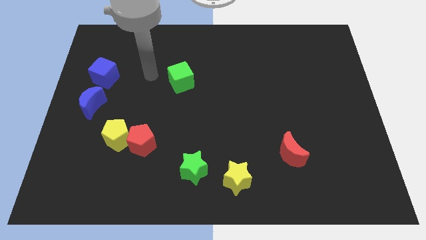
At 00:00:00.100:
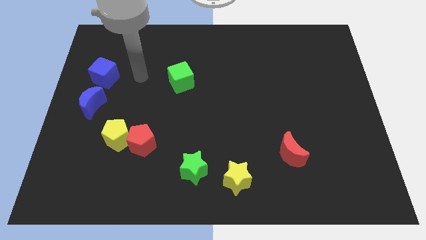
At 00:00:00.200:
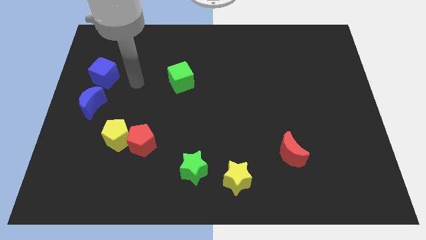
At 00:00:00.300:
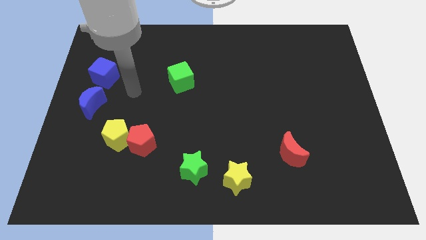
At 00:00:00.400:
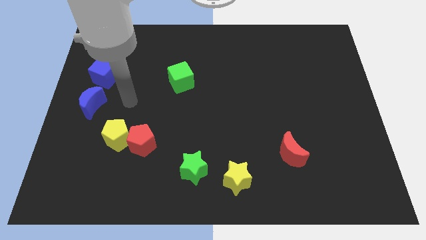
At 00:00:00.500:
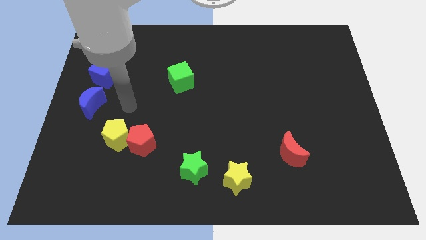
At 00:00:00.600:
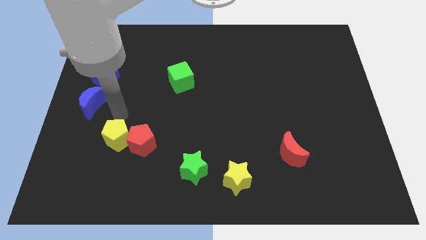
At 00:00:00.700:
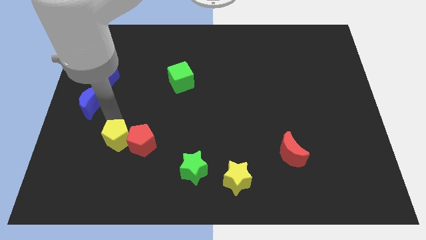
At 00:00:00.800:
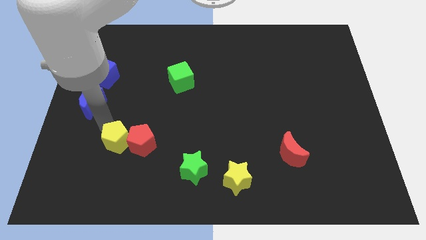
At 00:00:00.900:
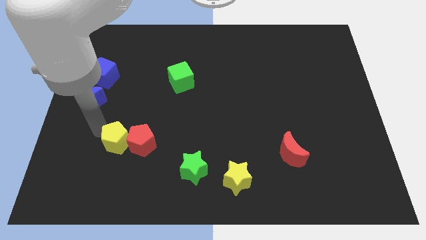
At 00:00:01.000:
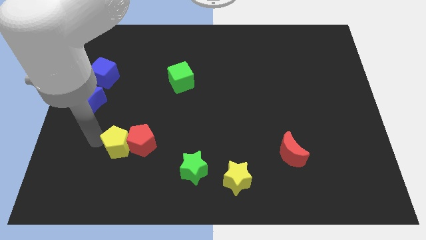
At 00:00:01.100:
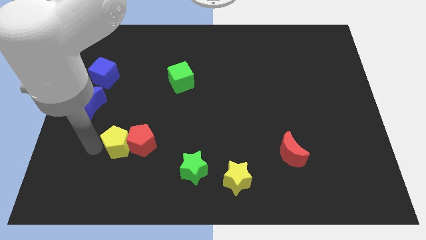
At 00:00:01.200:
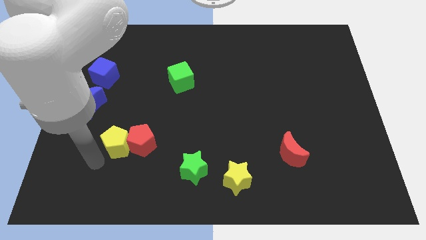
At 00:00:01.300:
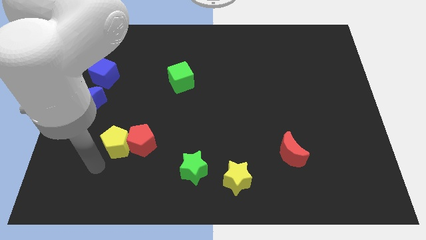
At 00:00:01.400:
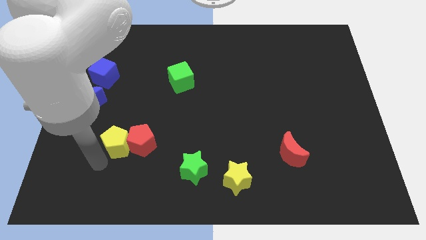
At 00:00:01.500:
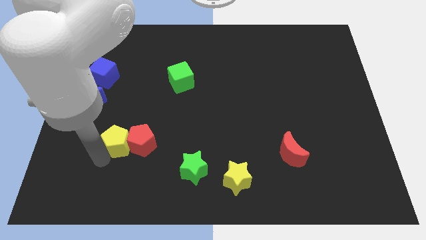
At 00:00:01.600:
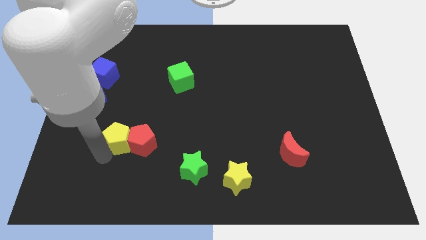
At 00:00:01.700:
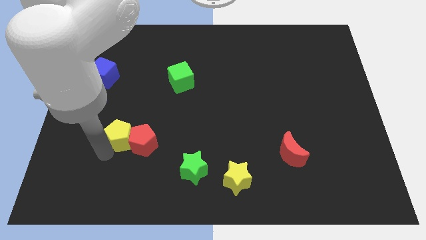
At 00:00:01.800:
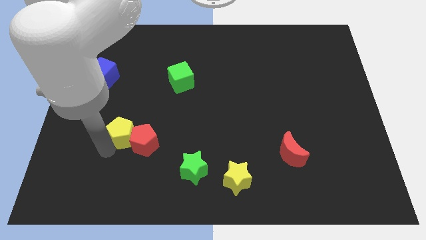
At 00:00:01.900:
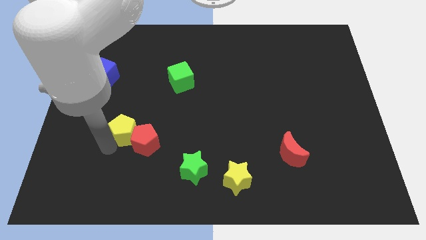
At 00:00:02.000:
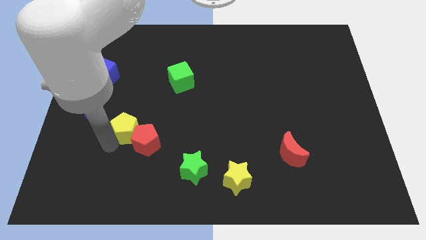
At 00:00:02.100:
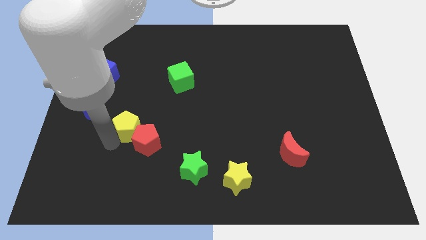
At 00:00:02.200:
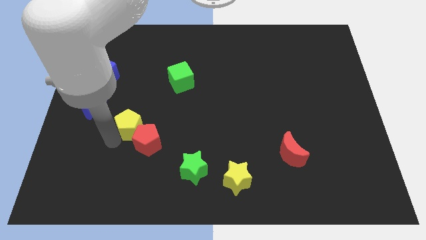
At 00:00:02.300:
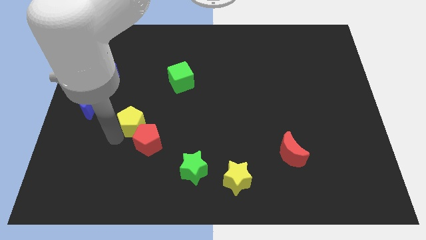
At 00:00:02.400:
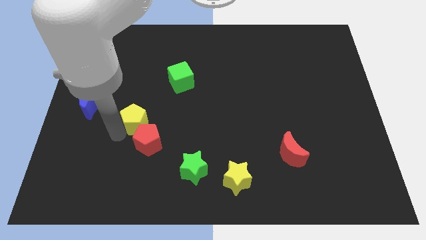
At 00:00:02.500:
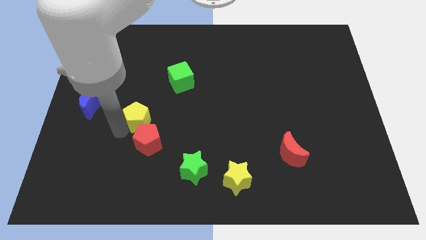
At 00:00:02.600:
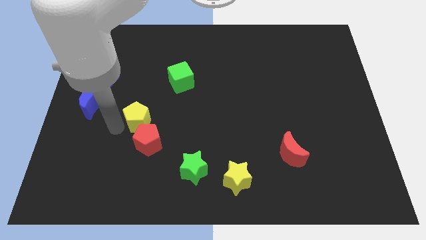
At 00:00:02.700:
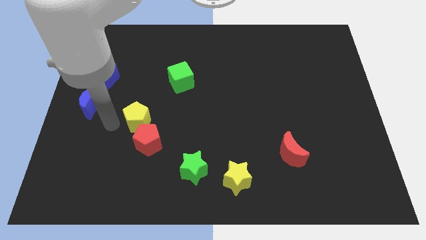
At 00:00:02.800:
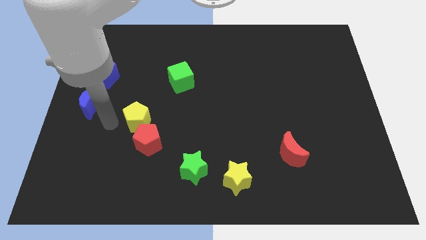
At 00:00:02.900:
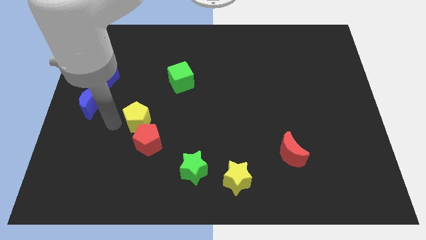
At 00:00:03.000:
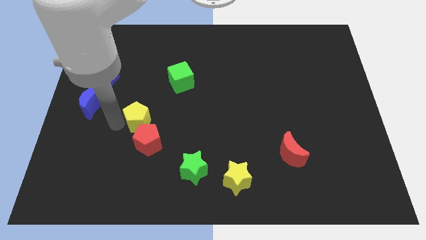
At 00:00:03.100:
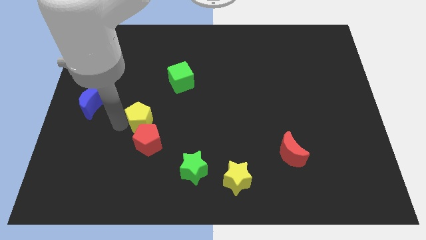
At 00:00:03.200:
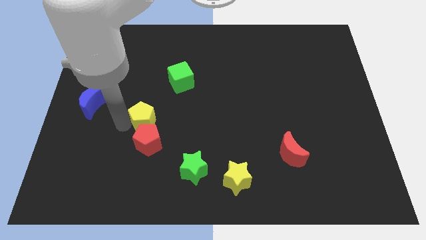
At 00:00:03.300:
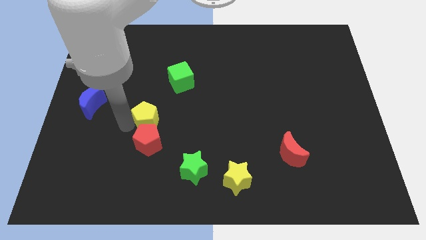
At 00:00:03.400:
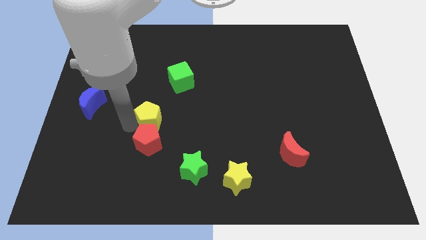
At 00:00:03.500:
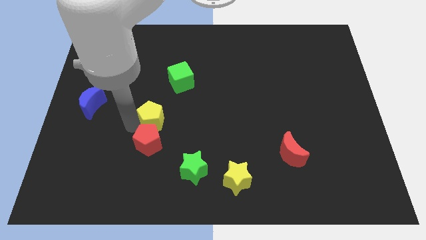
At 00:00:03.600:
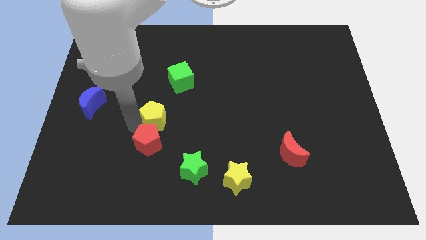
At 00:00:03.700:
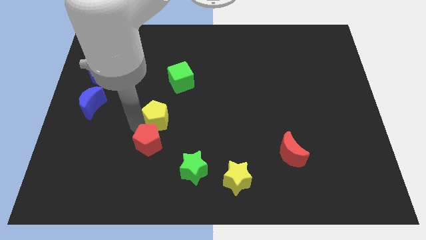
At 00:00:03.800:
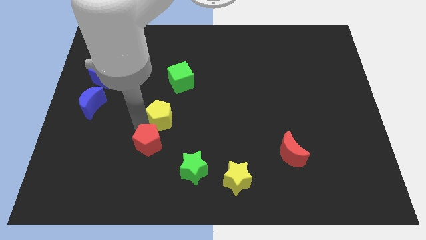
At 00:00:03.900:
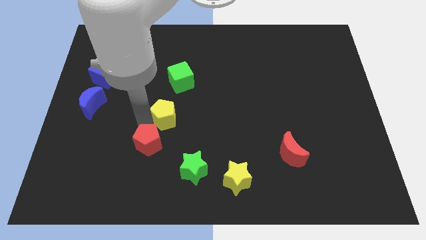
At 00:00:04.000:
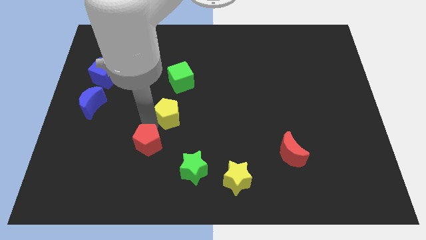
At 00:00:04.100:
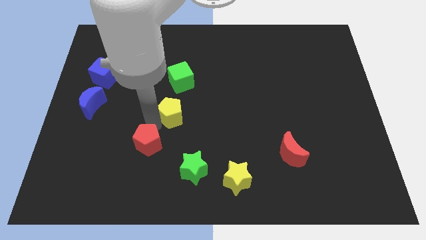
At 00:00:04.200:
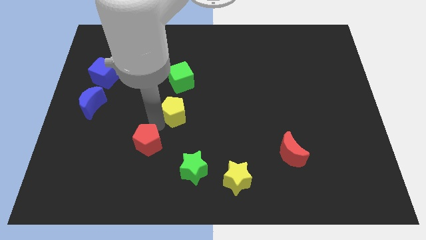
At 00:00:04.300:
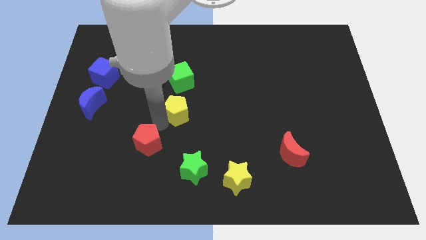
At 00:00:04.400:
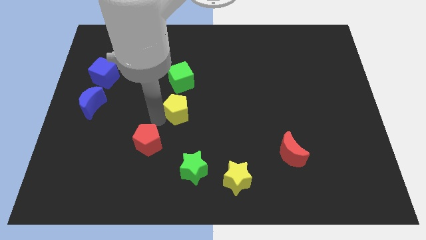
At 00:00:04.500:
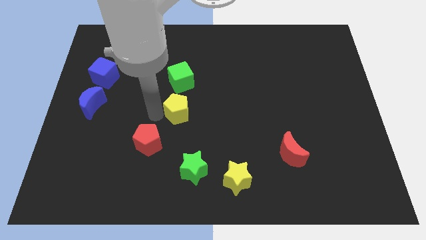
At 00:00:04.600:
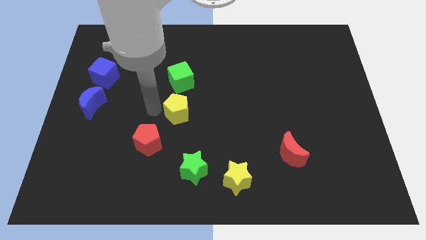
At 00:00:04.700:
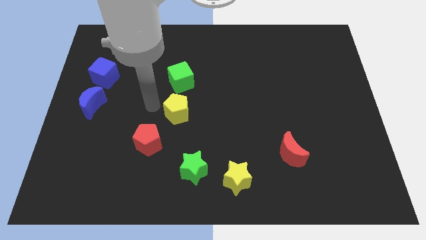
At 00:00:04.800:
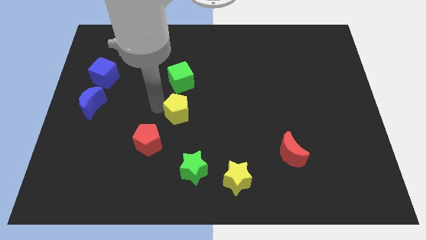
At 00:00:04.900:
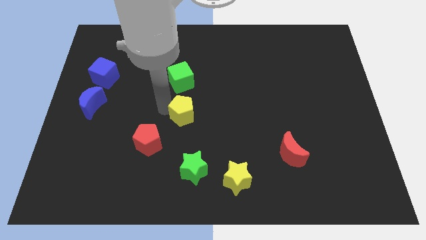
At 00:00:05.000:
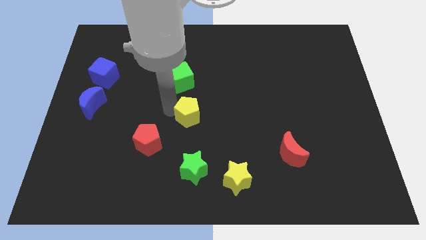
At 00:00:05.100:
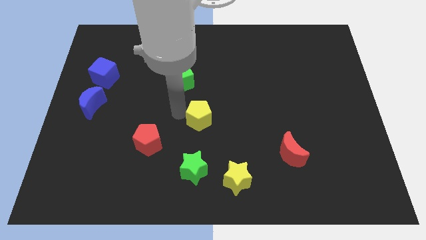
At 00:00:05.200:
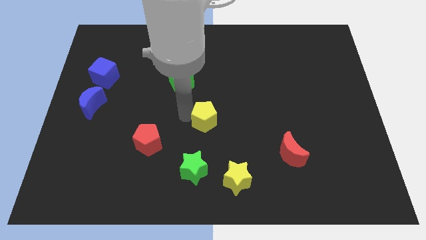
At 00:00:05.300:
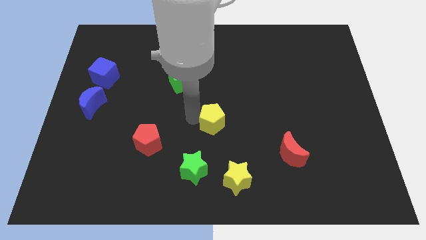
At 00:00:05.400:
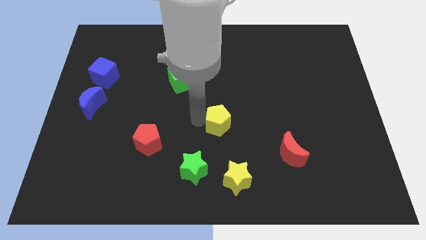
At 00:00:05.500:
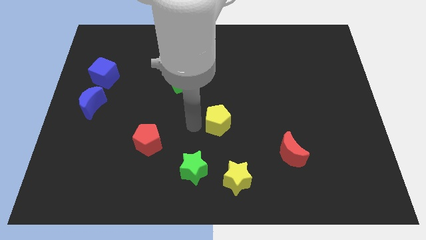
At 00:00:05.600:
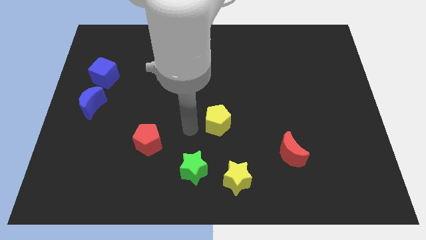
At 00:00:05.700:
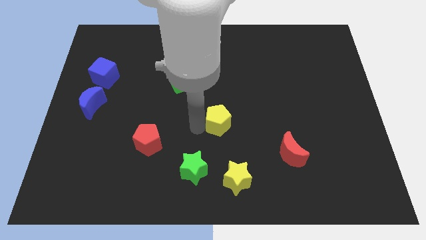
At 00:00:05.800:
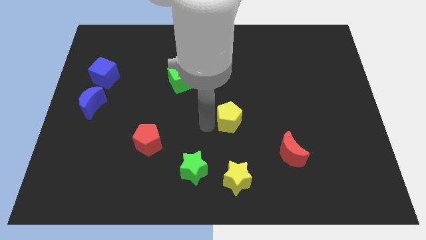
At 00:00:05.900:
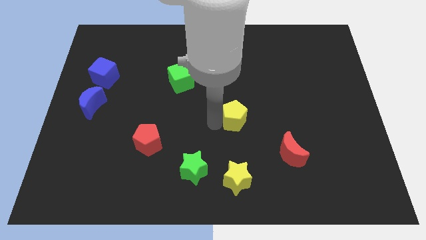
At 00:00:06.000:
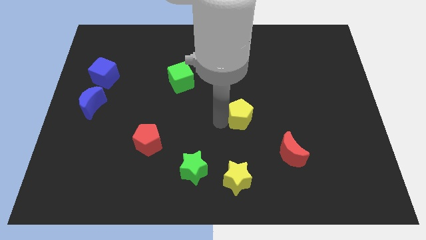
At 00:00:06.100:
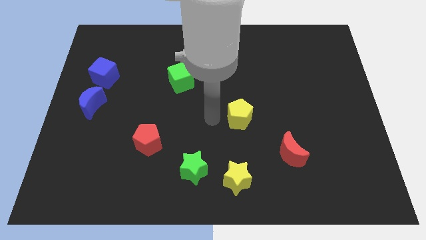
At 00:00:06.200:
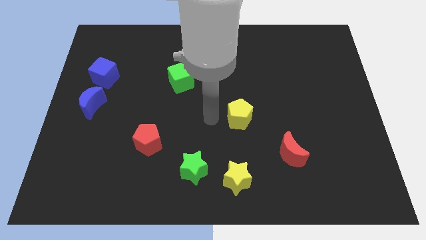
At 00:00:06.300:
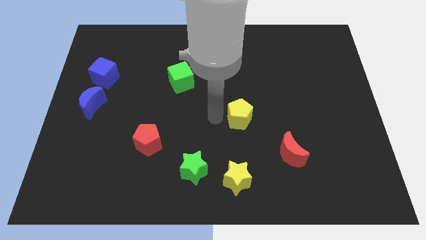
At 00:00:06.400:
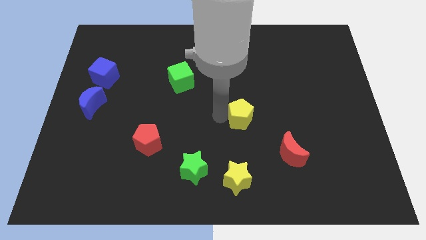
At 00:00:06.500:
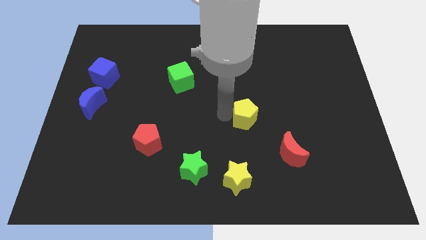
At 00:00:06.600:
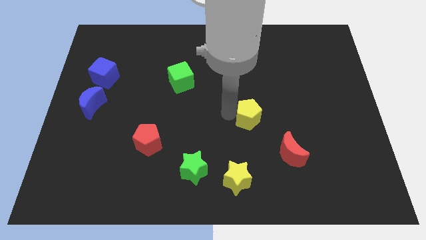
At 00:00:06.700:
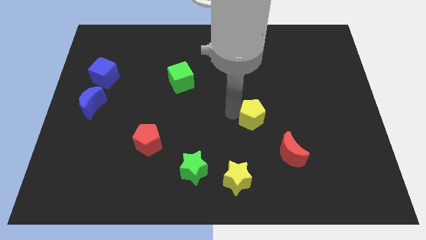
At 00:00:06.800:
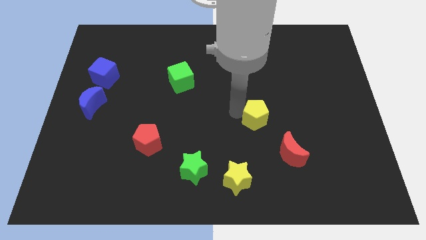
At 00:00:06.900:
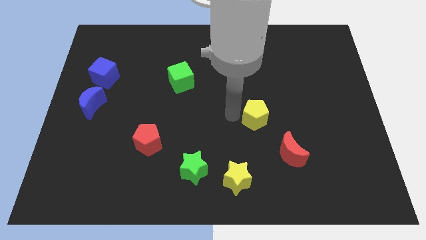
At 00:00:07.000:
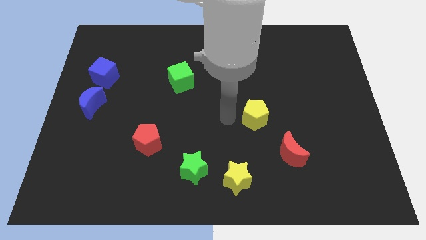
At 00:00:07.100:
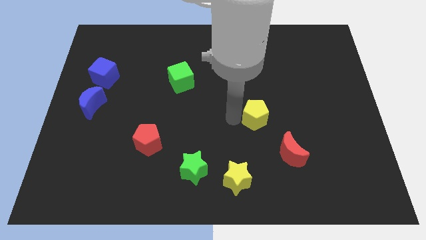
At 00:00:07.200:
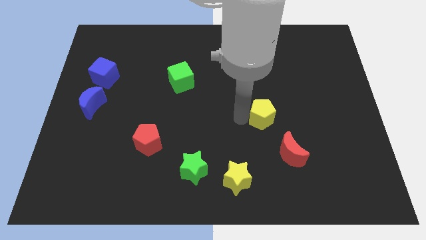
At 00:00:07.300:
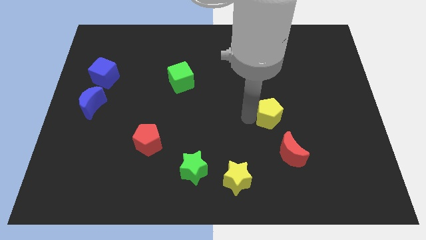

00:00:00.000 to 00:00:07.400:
move the yellow pentagon above the red moon
